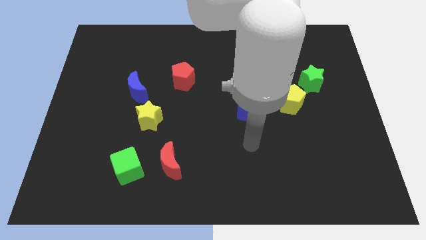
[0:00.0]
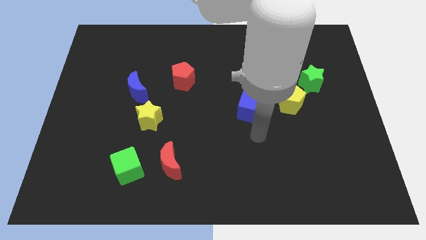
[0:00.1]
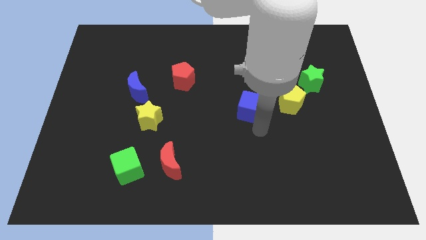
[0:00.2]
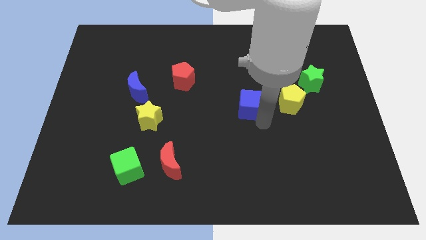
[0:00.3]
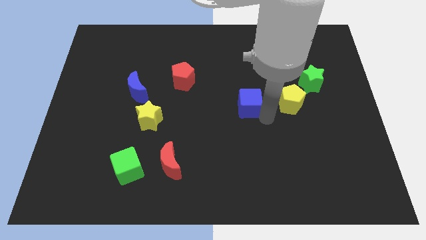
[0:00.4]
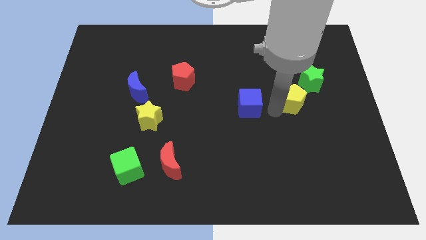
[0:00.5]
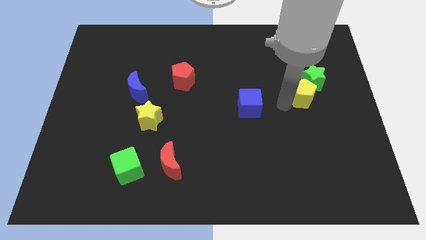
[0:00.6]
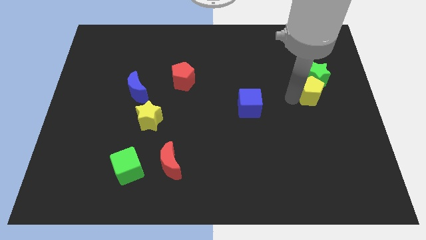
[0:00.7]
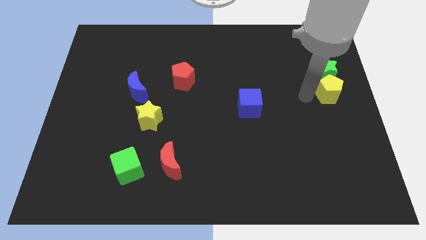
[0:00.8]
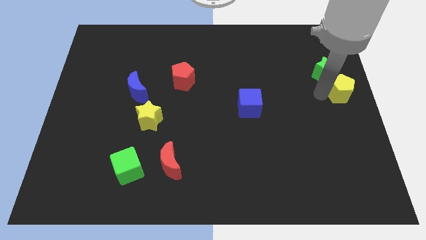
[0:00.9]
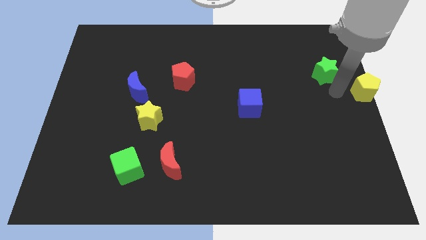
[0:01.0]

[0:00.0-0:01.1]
pull the green star apart from the yellow pentagon

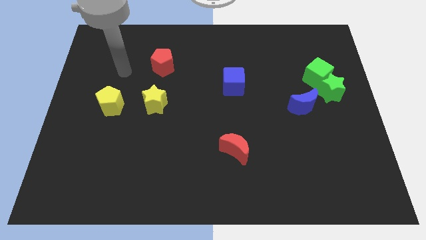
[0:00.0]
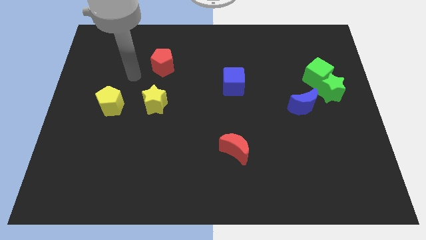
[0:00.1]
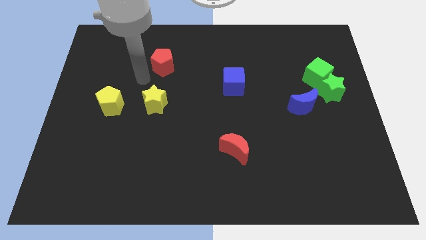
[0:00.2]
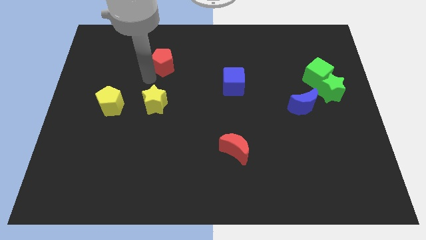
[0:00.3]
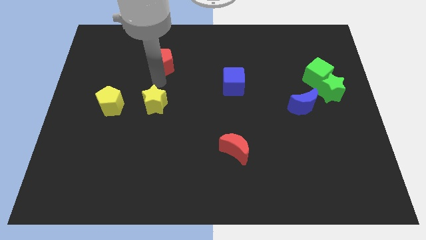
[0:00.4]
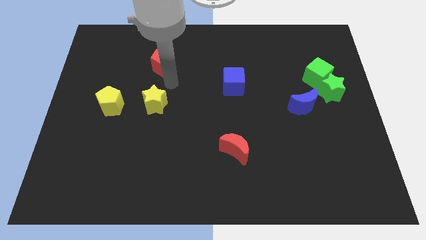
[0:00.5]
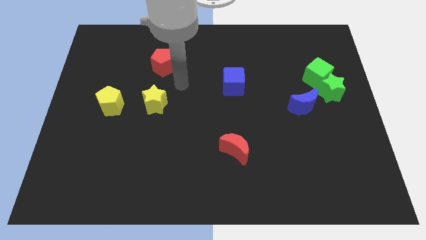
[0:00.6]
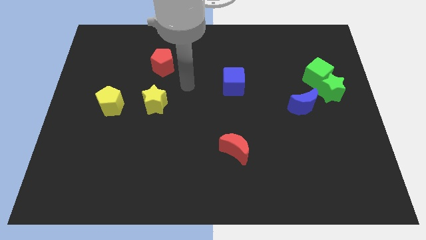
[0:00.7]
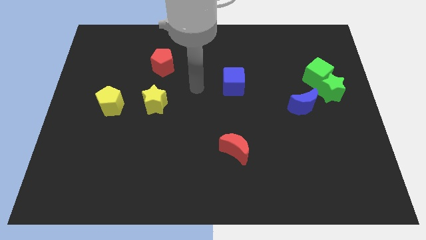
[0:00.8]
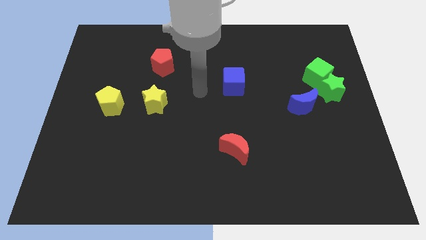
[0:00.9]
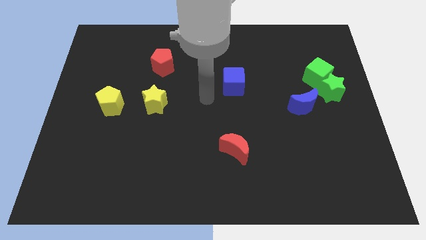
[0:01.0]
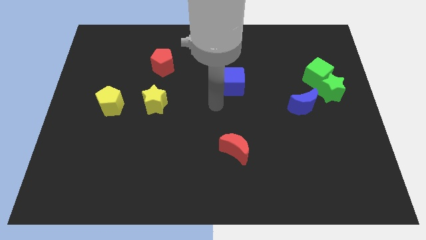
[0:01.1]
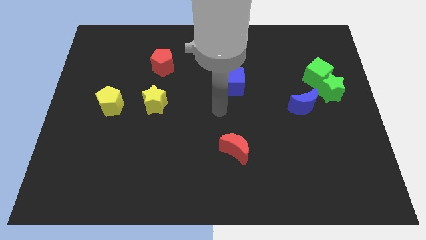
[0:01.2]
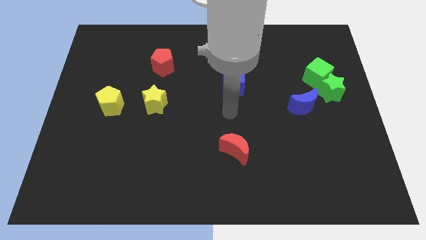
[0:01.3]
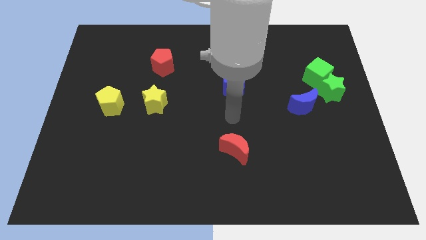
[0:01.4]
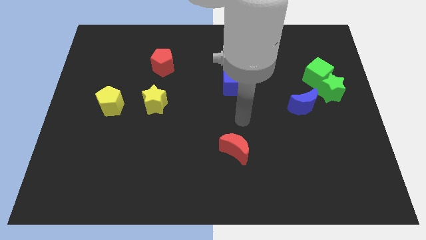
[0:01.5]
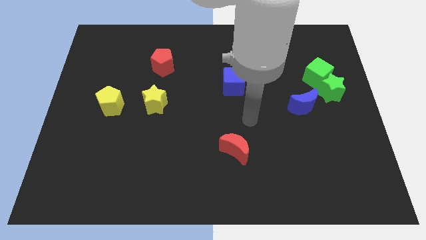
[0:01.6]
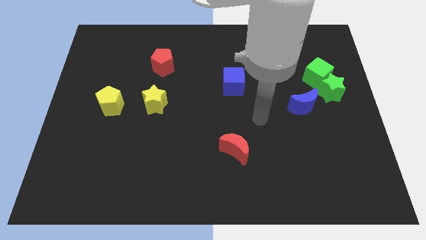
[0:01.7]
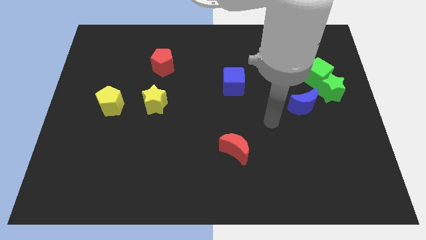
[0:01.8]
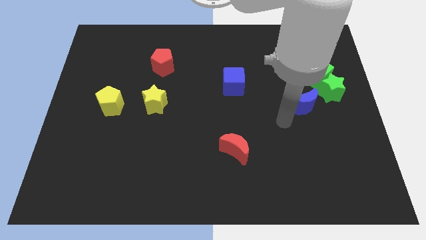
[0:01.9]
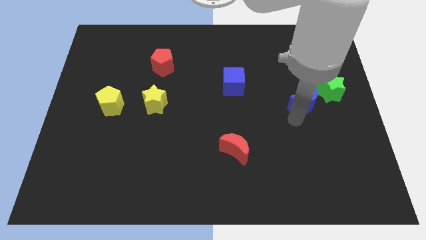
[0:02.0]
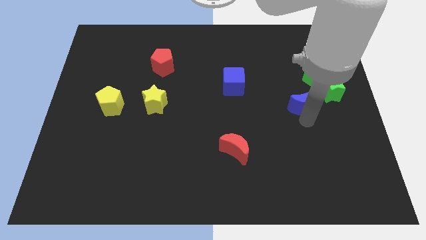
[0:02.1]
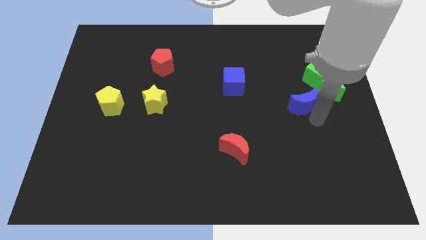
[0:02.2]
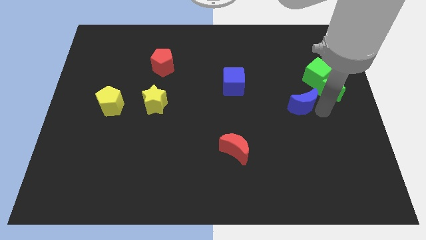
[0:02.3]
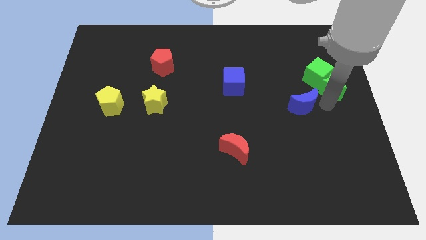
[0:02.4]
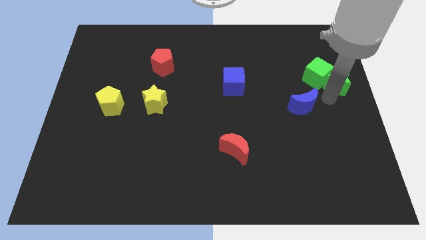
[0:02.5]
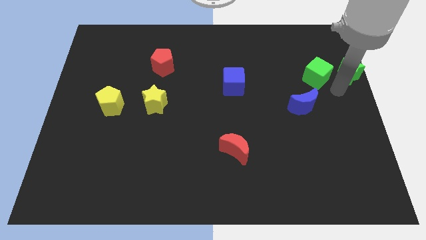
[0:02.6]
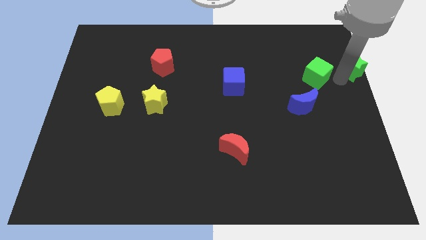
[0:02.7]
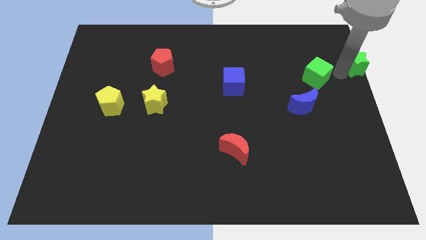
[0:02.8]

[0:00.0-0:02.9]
pull the green cube apart from the green star

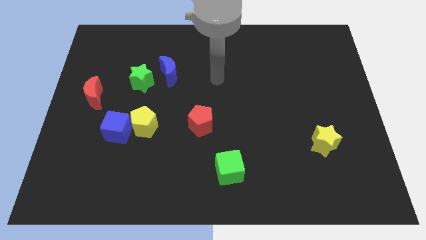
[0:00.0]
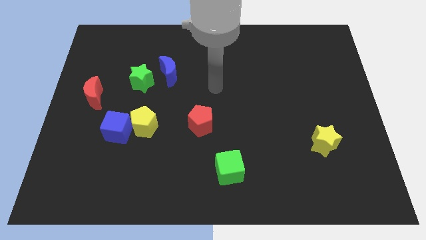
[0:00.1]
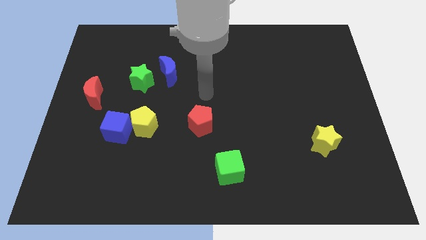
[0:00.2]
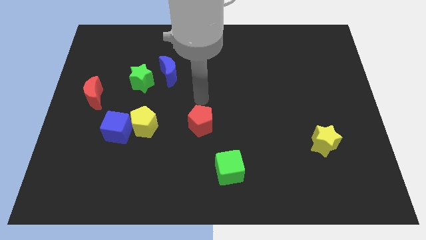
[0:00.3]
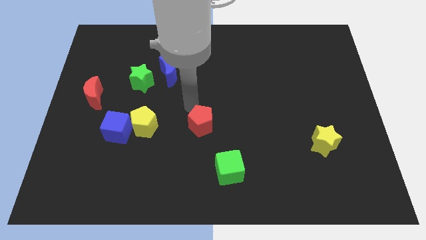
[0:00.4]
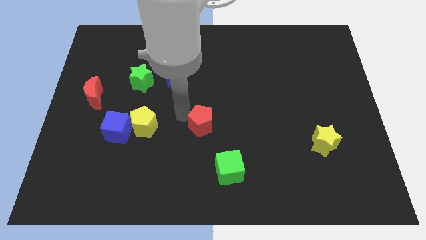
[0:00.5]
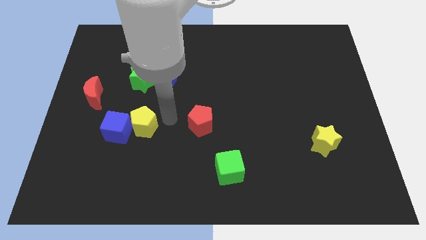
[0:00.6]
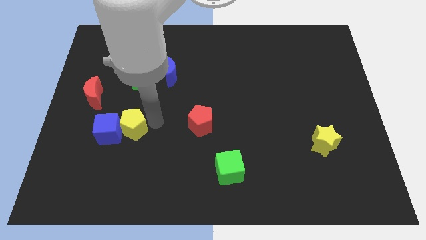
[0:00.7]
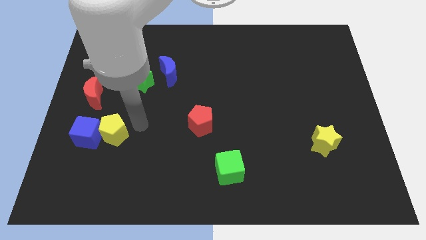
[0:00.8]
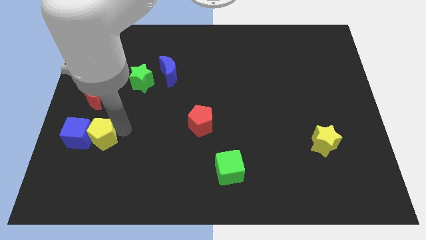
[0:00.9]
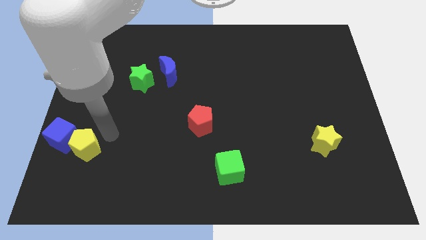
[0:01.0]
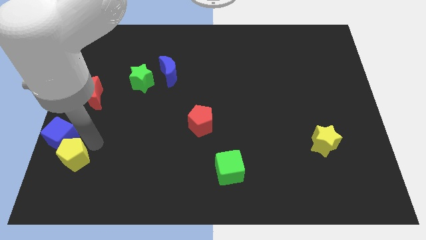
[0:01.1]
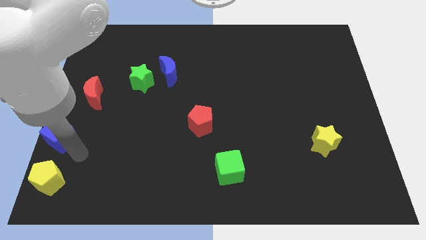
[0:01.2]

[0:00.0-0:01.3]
pull the blue cube apart from the yellow pentagon

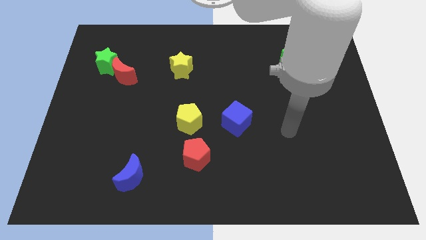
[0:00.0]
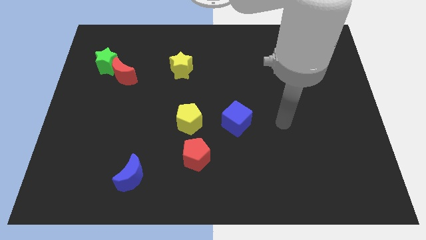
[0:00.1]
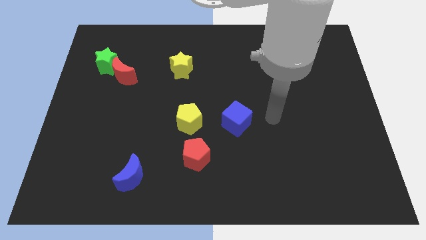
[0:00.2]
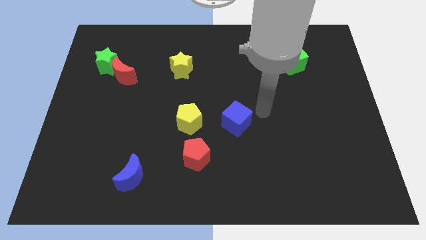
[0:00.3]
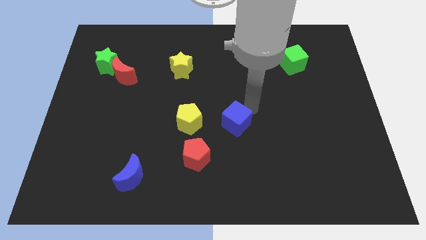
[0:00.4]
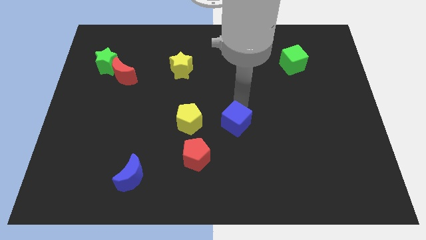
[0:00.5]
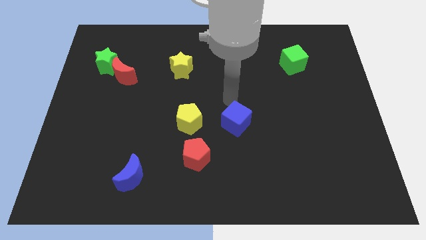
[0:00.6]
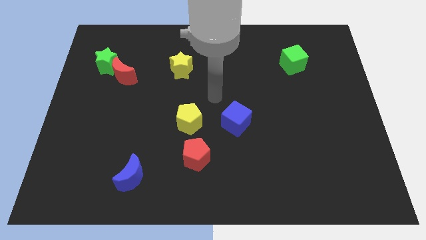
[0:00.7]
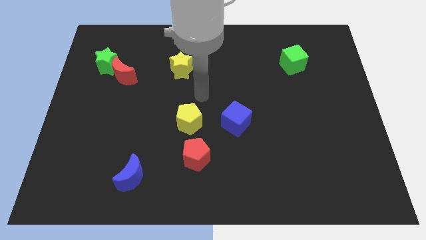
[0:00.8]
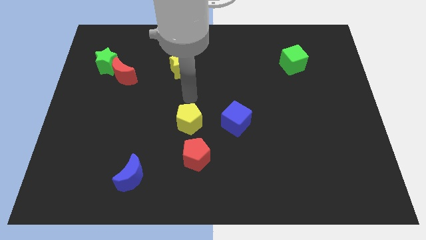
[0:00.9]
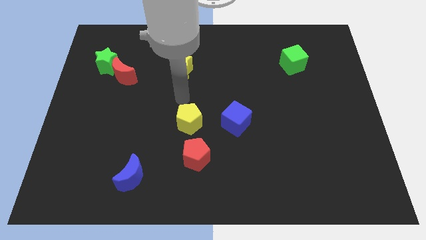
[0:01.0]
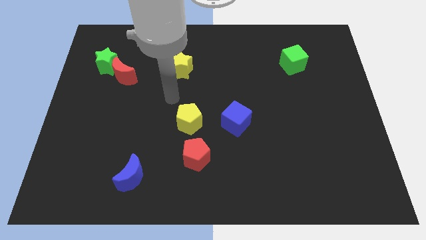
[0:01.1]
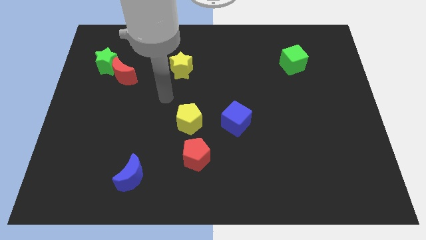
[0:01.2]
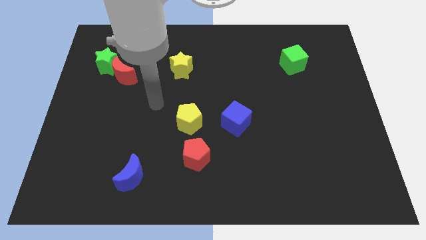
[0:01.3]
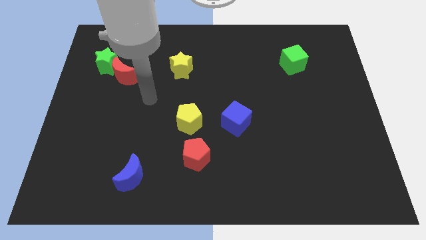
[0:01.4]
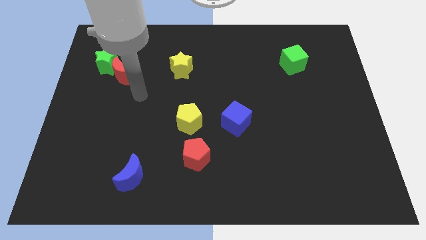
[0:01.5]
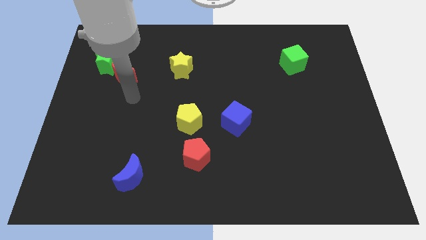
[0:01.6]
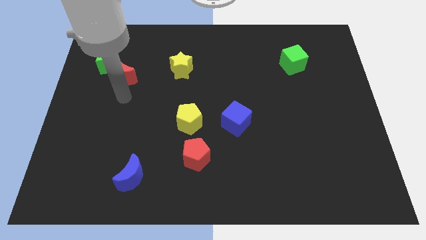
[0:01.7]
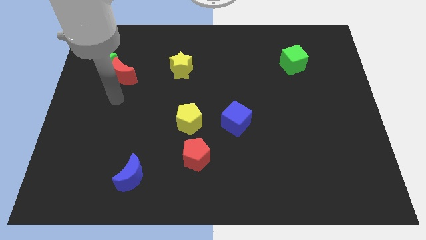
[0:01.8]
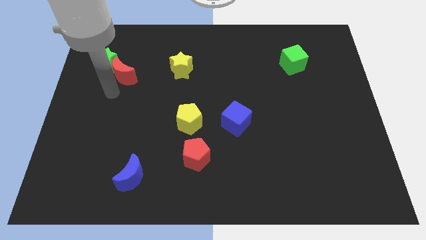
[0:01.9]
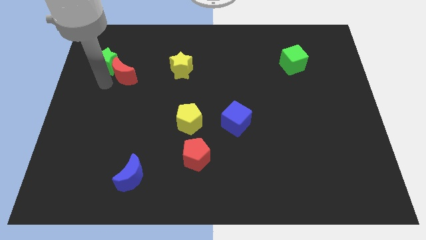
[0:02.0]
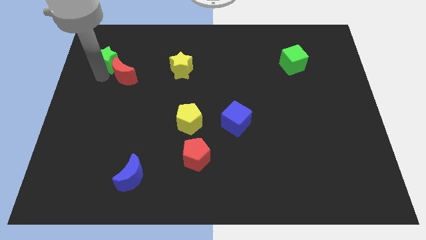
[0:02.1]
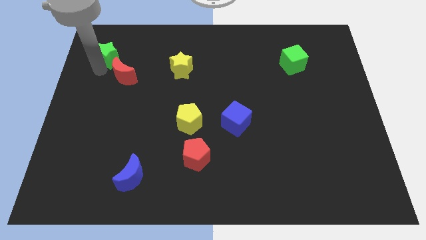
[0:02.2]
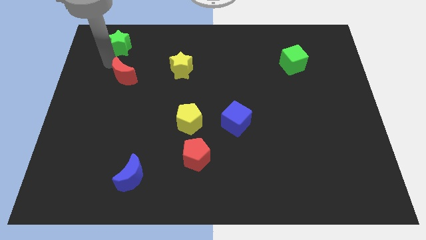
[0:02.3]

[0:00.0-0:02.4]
separate the red moon from the green star

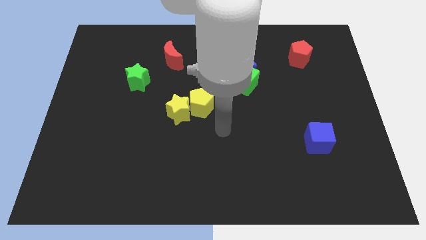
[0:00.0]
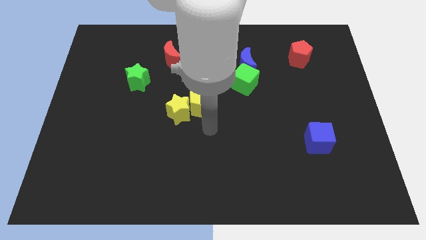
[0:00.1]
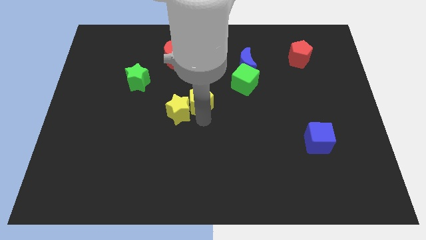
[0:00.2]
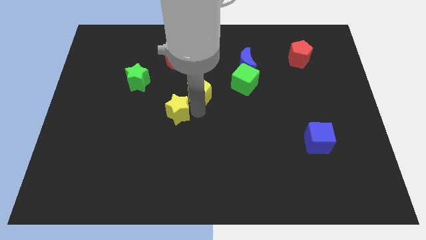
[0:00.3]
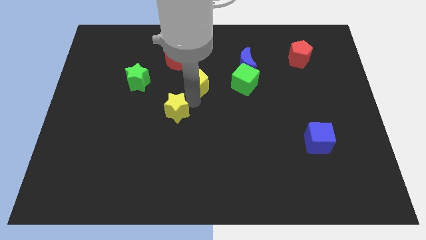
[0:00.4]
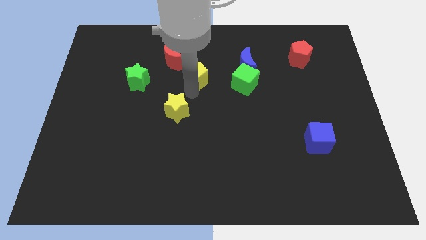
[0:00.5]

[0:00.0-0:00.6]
separate the yellow star from the yellow pentagon

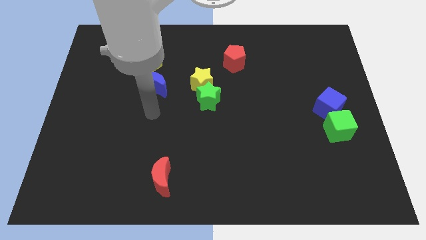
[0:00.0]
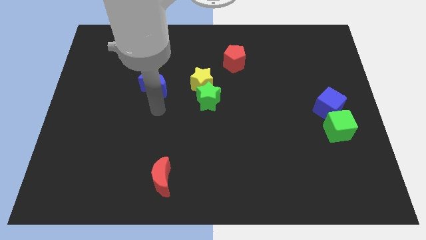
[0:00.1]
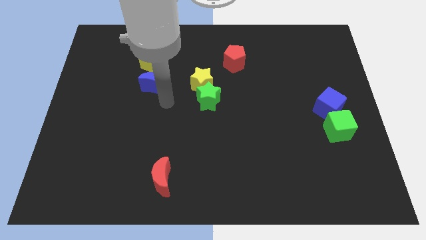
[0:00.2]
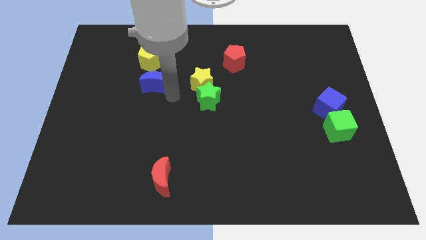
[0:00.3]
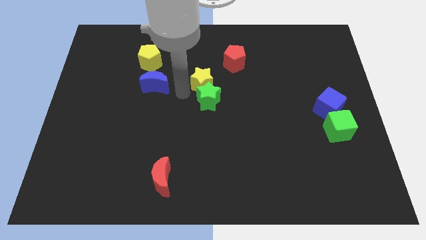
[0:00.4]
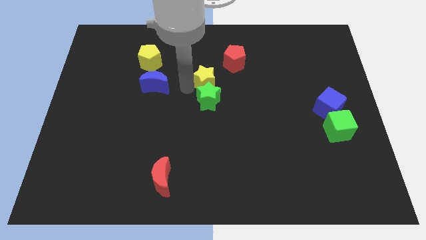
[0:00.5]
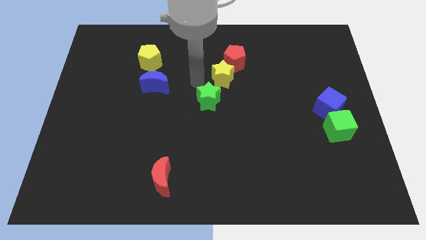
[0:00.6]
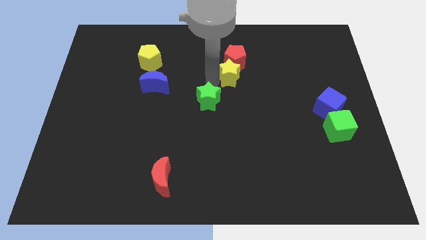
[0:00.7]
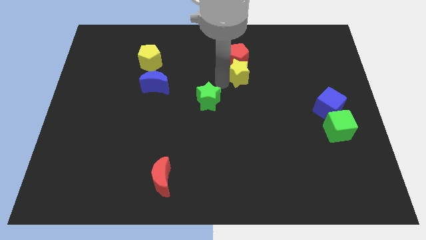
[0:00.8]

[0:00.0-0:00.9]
separate the green star from the yellow star

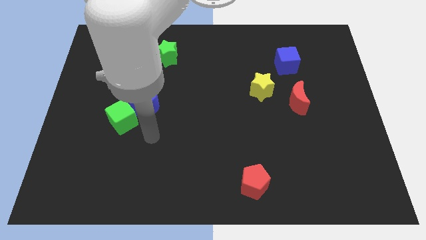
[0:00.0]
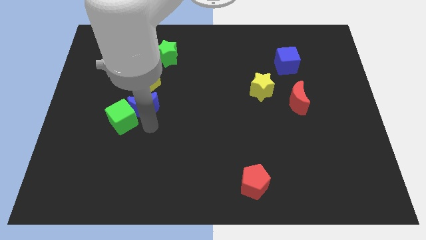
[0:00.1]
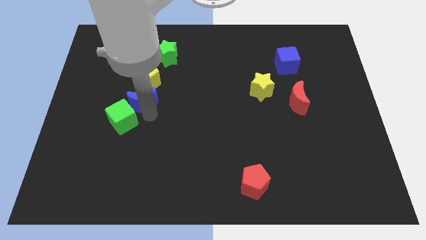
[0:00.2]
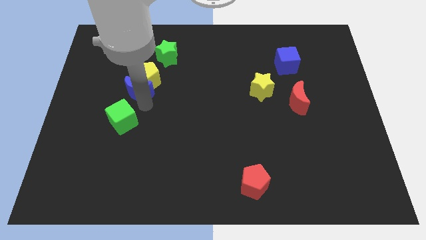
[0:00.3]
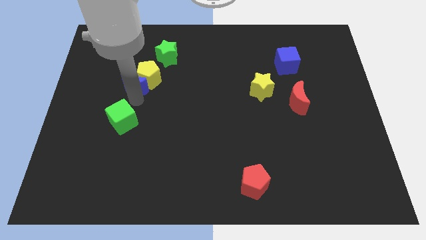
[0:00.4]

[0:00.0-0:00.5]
move the green cube away from the blue moon
